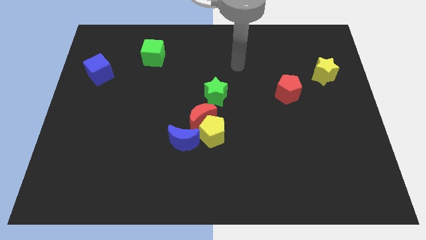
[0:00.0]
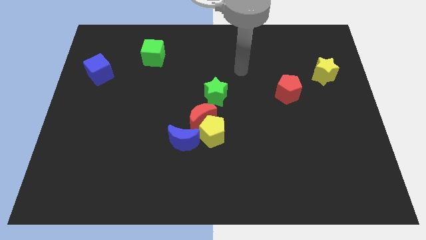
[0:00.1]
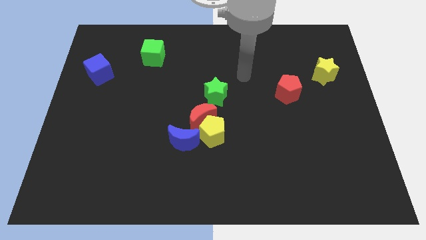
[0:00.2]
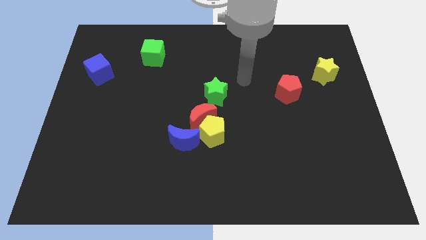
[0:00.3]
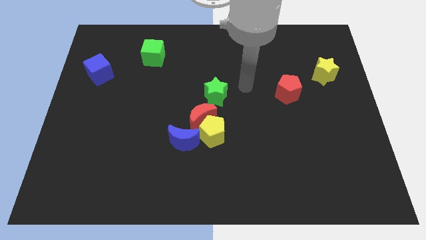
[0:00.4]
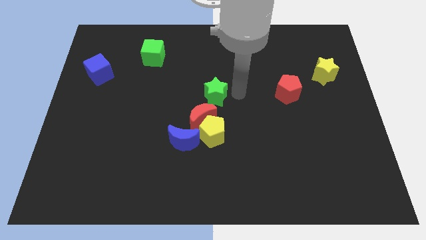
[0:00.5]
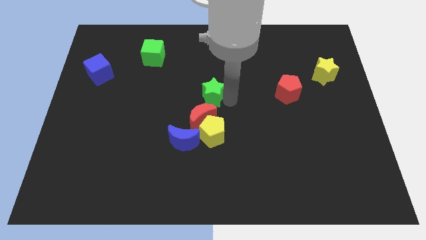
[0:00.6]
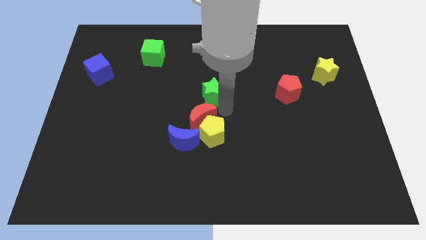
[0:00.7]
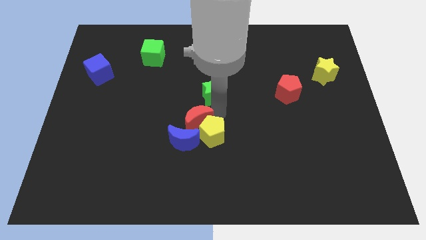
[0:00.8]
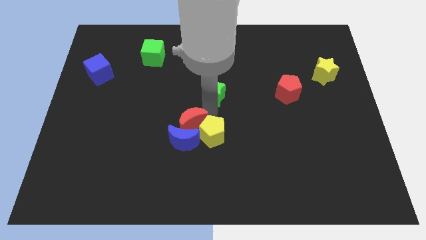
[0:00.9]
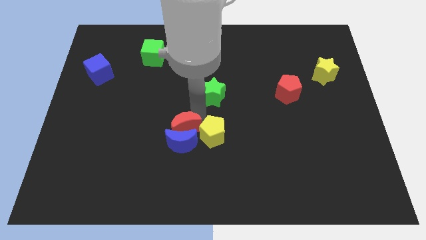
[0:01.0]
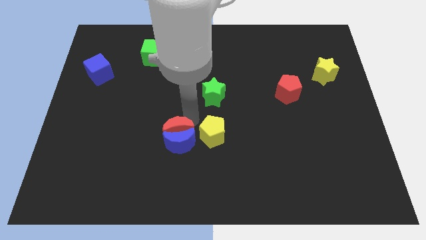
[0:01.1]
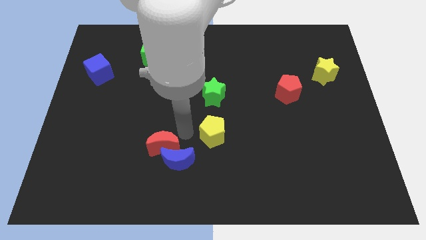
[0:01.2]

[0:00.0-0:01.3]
move the yellow pentagon away from the red moon and blue moon

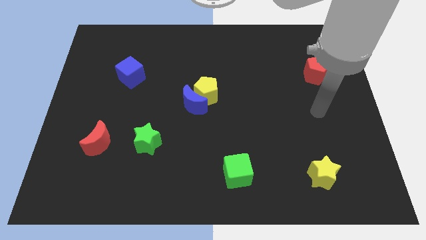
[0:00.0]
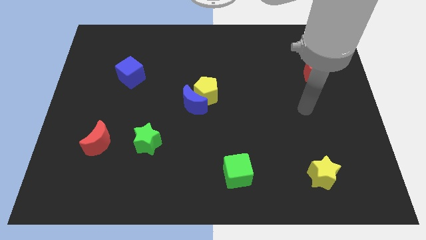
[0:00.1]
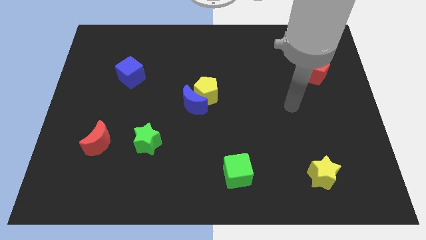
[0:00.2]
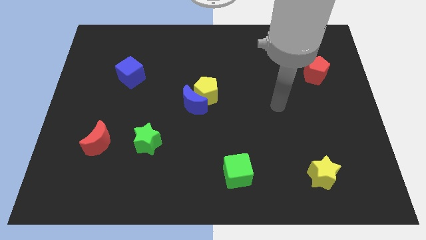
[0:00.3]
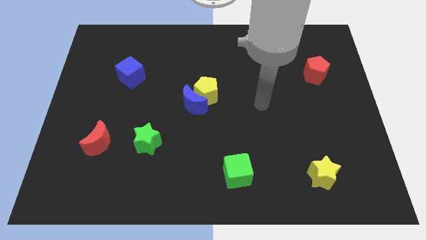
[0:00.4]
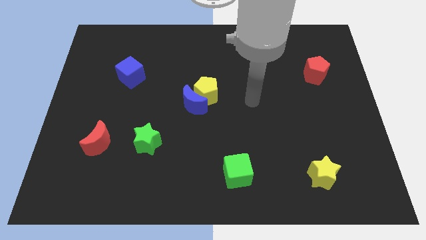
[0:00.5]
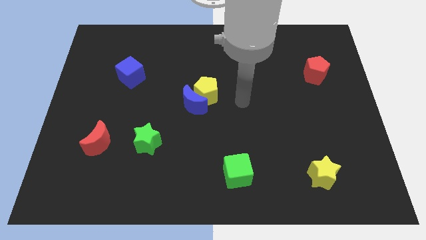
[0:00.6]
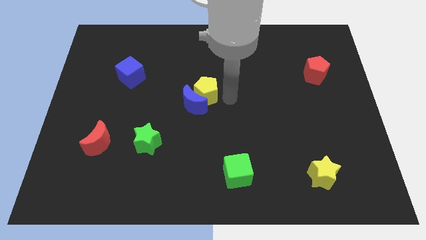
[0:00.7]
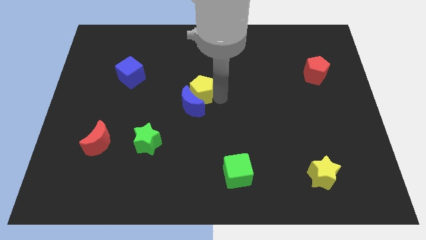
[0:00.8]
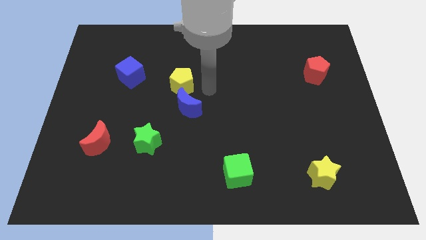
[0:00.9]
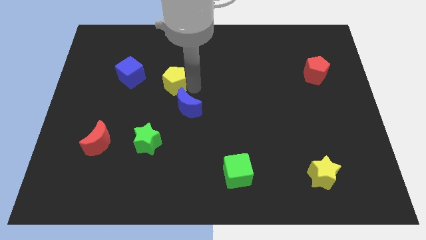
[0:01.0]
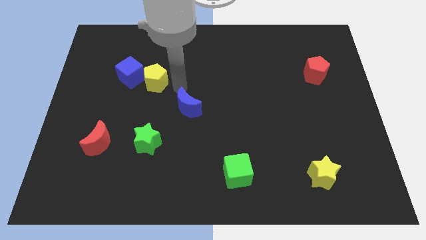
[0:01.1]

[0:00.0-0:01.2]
move the blue moon away from the yellow pentagon

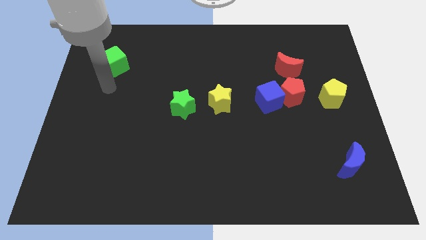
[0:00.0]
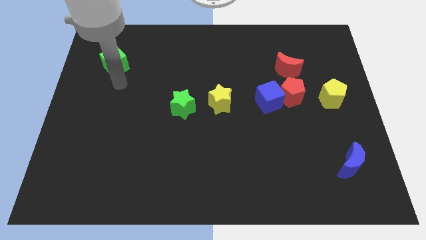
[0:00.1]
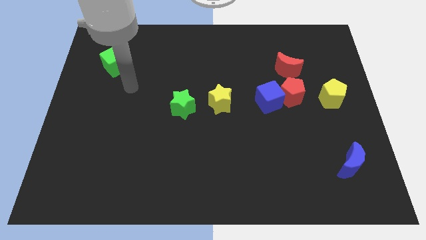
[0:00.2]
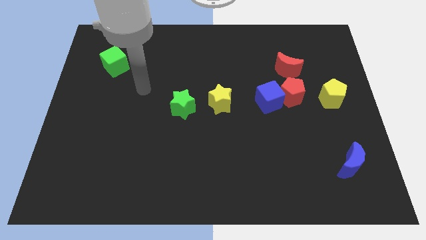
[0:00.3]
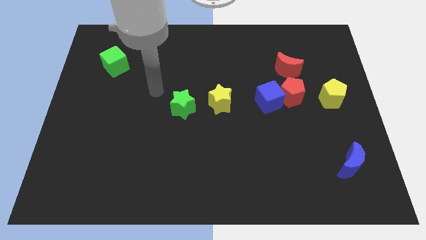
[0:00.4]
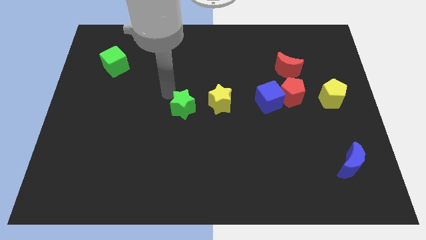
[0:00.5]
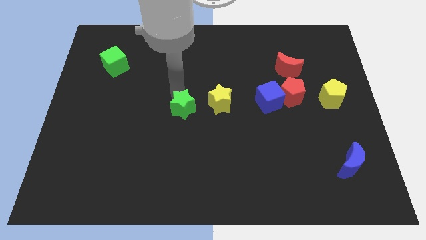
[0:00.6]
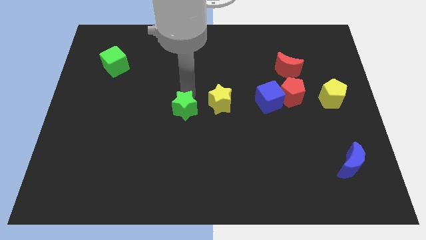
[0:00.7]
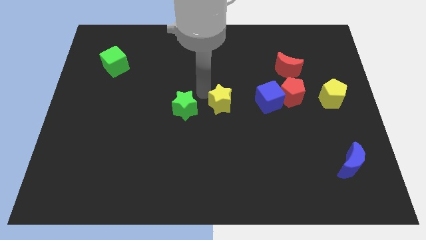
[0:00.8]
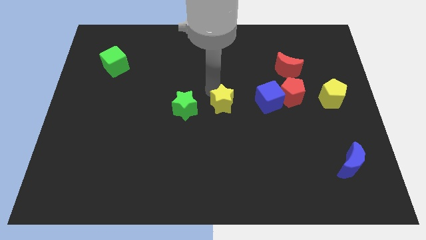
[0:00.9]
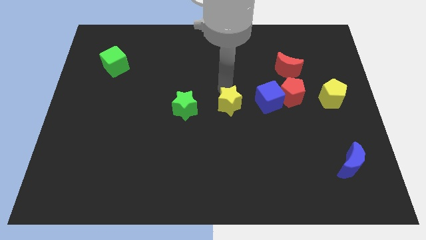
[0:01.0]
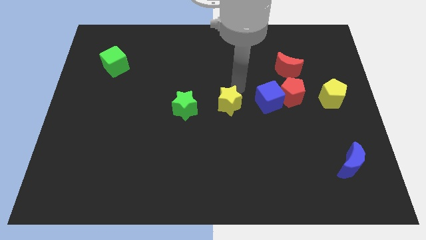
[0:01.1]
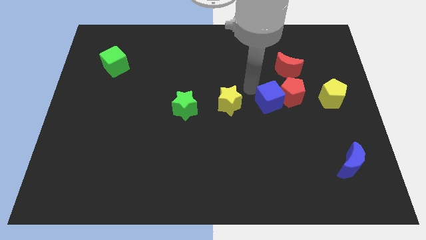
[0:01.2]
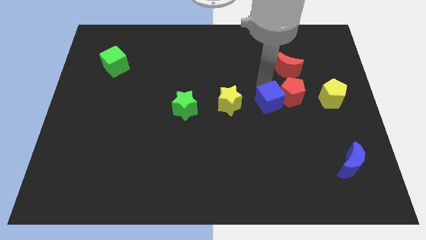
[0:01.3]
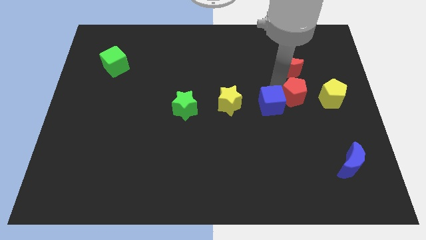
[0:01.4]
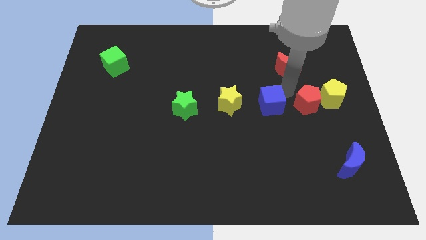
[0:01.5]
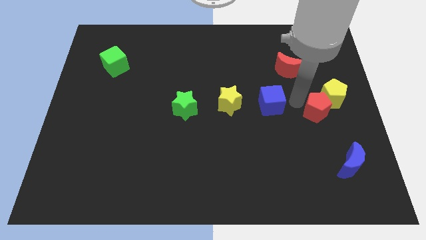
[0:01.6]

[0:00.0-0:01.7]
pull the blue cube apart from the red pentagon

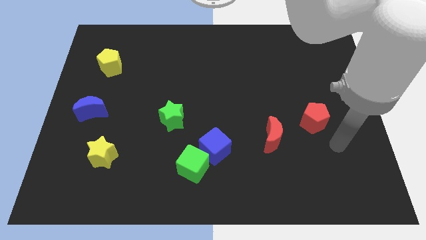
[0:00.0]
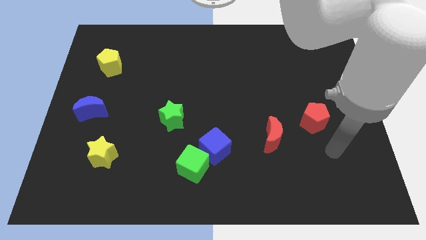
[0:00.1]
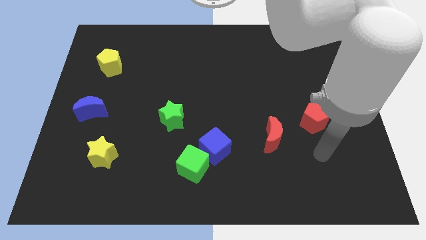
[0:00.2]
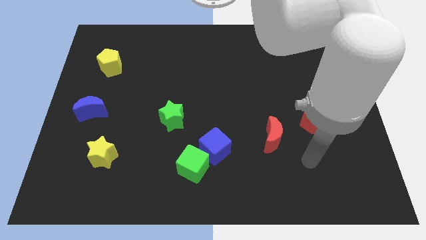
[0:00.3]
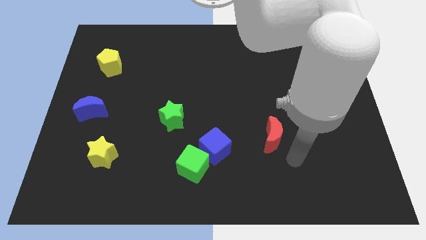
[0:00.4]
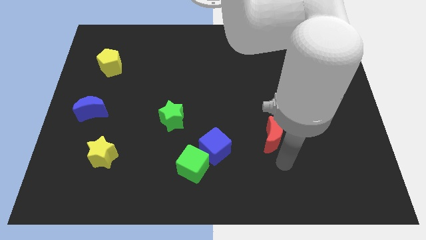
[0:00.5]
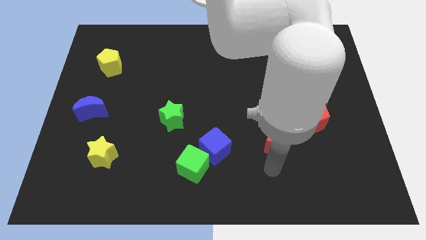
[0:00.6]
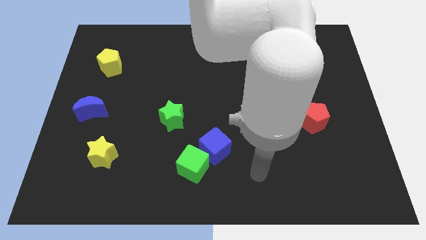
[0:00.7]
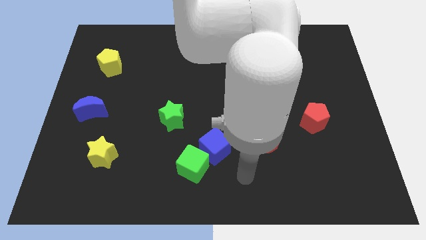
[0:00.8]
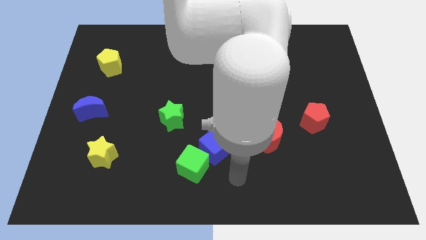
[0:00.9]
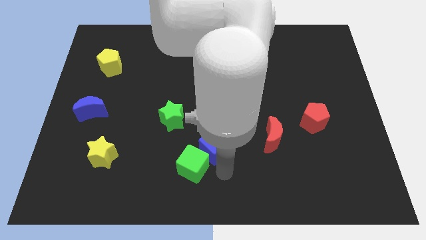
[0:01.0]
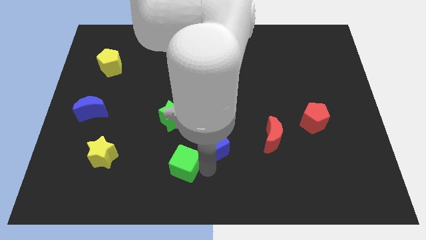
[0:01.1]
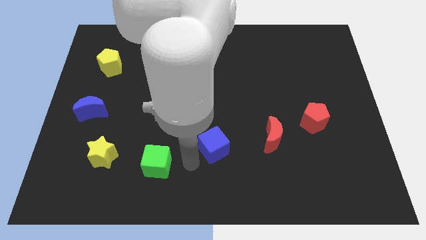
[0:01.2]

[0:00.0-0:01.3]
move the blue cube away from the green cube

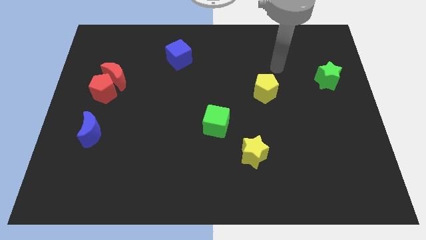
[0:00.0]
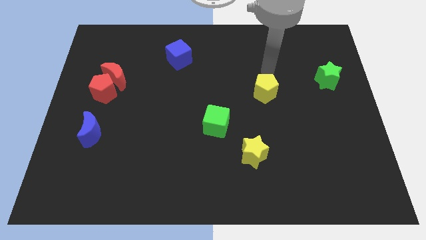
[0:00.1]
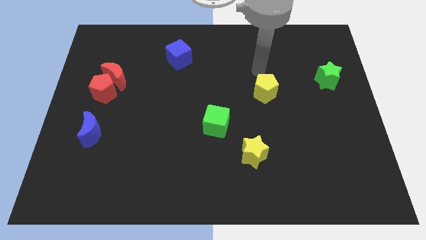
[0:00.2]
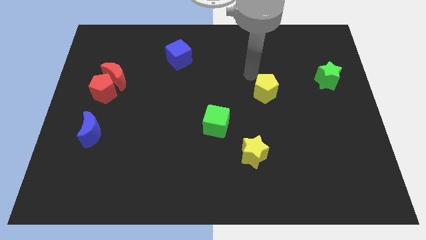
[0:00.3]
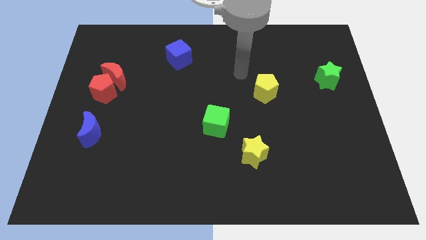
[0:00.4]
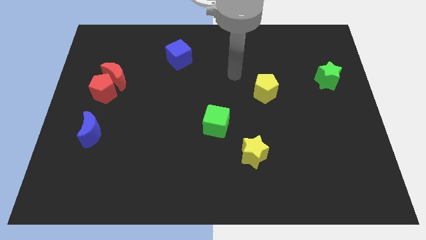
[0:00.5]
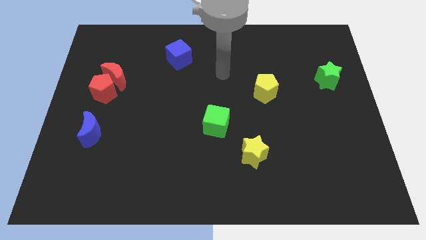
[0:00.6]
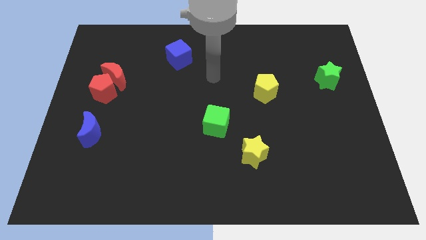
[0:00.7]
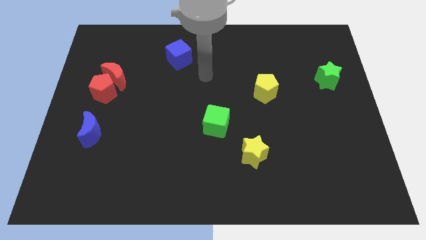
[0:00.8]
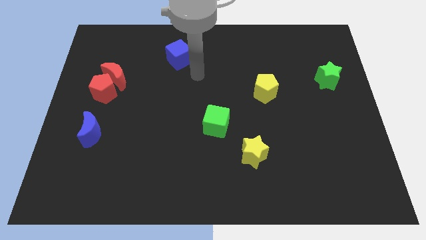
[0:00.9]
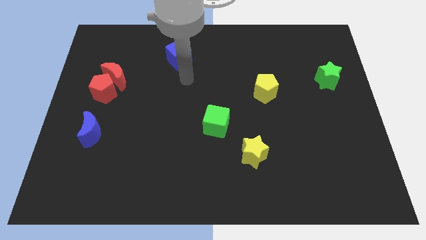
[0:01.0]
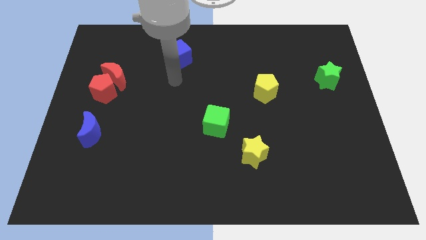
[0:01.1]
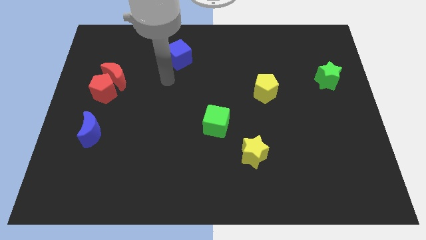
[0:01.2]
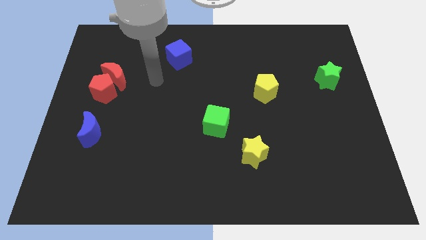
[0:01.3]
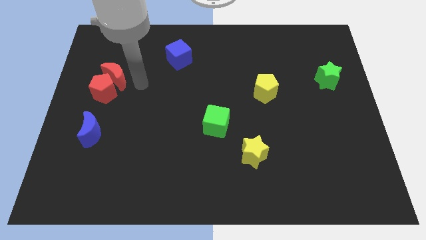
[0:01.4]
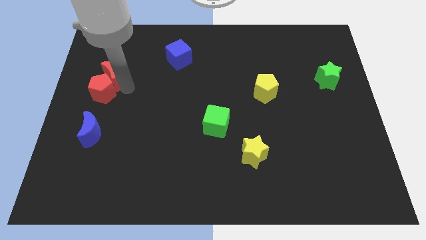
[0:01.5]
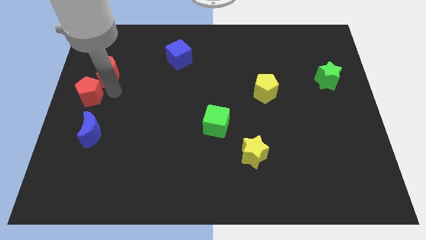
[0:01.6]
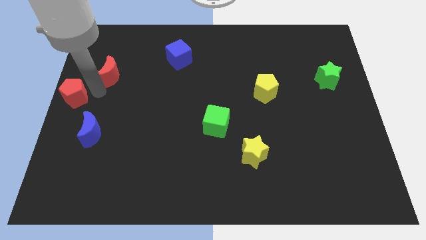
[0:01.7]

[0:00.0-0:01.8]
move the red moon away from the red pentagon

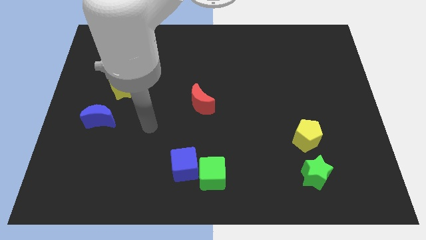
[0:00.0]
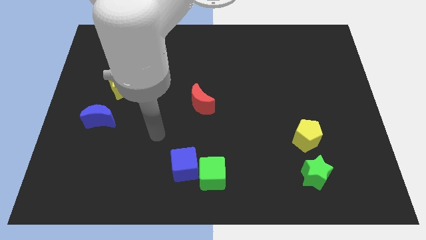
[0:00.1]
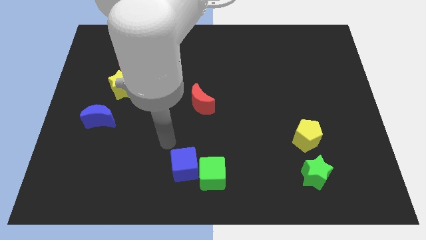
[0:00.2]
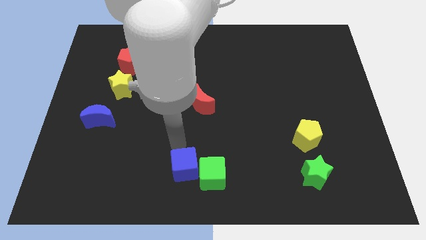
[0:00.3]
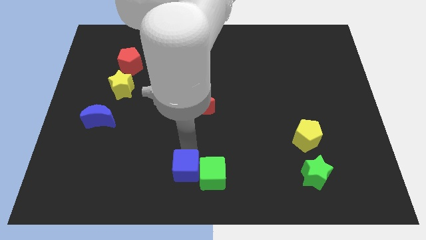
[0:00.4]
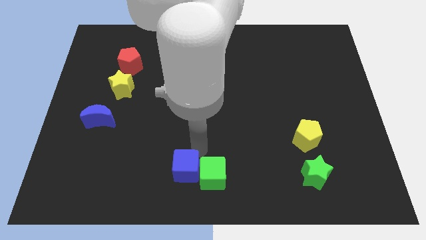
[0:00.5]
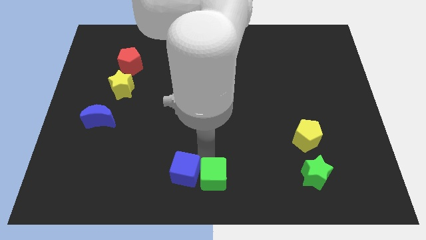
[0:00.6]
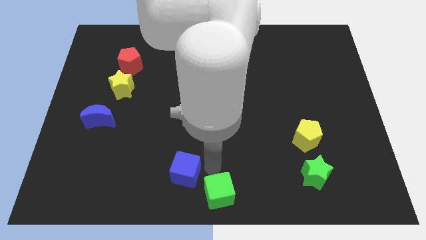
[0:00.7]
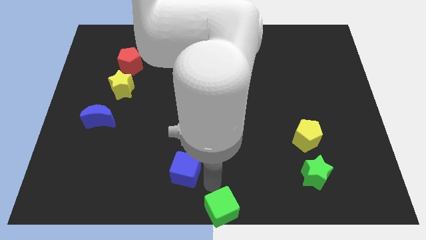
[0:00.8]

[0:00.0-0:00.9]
pull the blue cube apart from the green cube

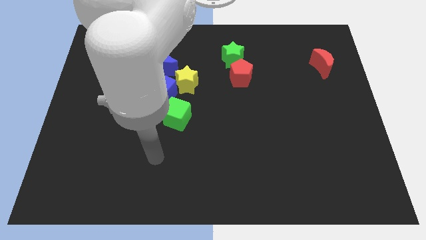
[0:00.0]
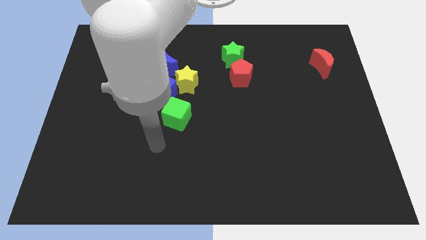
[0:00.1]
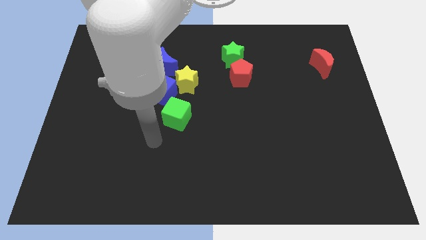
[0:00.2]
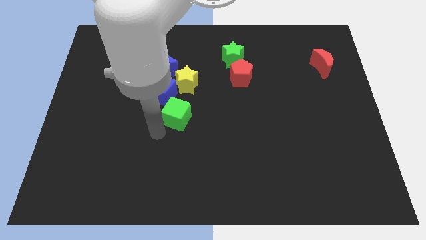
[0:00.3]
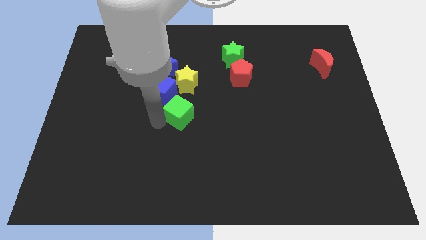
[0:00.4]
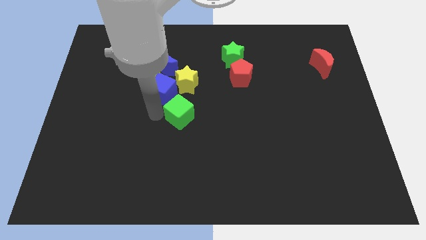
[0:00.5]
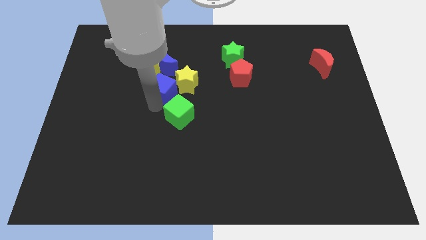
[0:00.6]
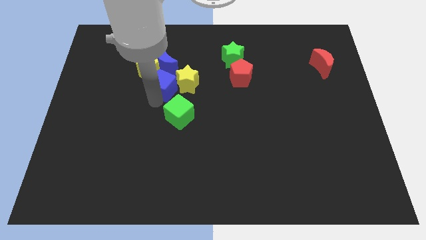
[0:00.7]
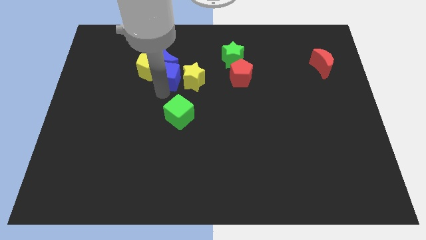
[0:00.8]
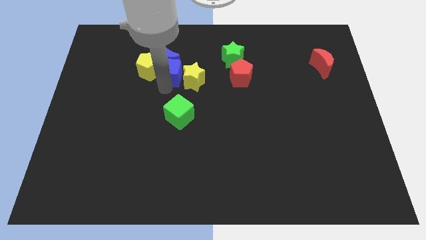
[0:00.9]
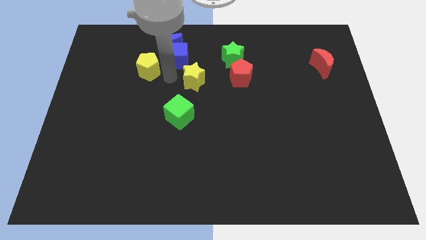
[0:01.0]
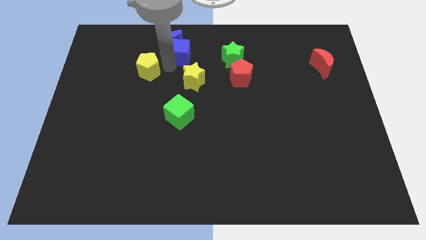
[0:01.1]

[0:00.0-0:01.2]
separate the yellow pentagon from the blue moon and blue cube
